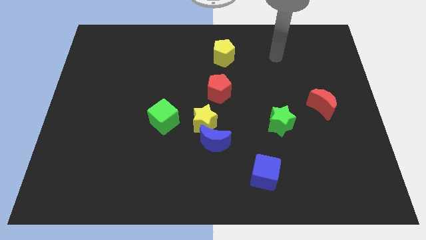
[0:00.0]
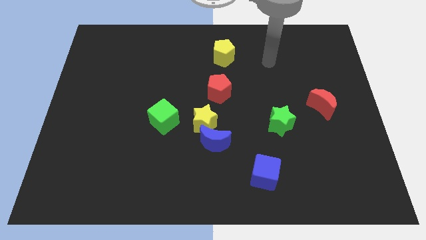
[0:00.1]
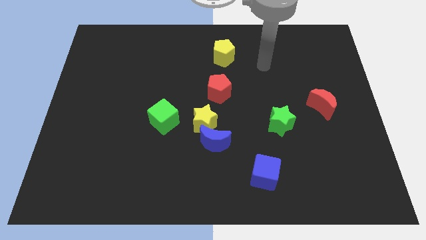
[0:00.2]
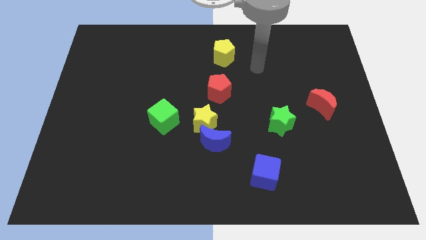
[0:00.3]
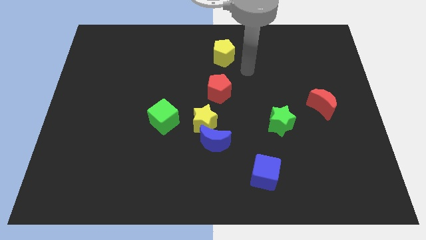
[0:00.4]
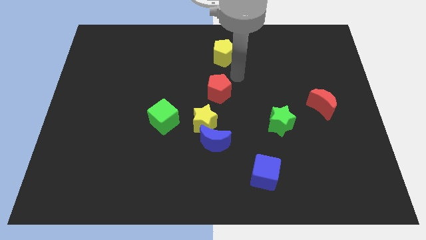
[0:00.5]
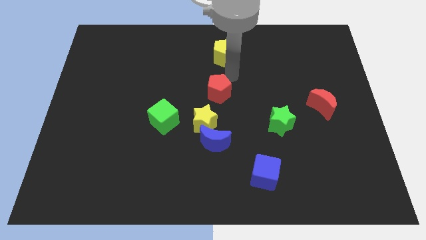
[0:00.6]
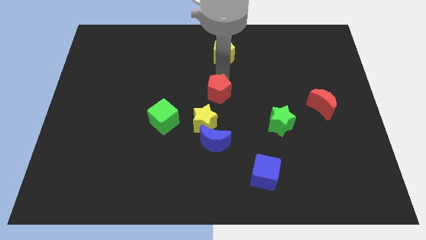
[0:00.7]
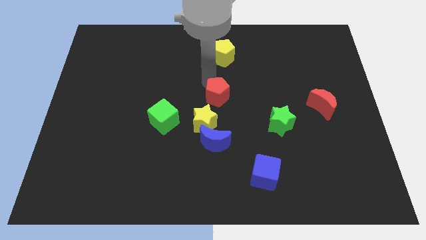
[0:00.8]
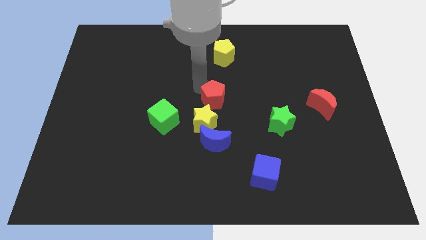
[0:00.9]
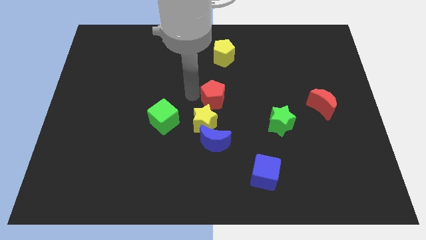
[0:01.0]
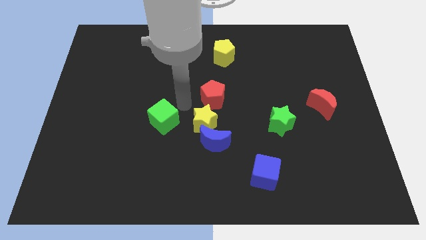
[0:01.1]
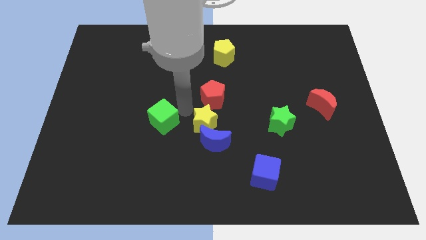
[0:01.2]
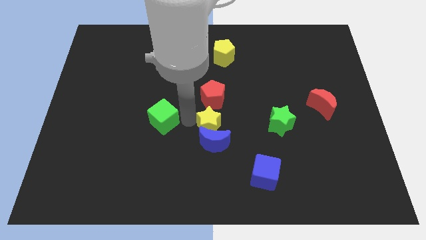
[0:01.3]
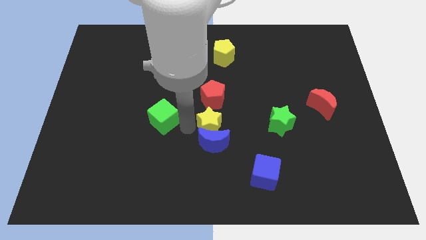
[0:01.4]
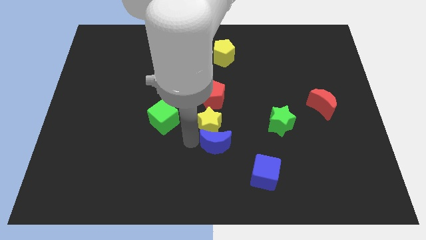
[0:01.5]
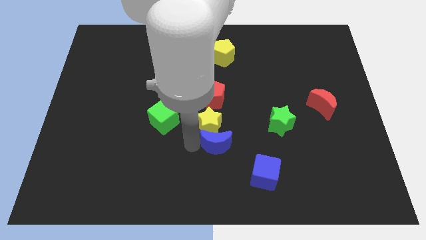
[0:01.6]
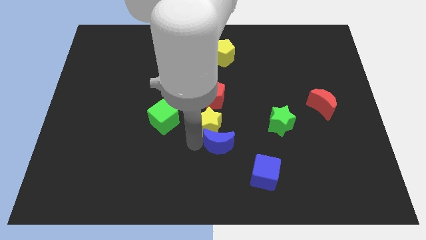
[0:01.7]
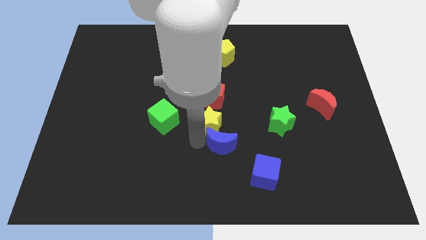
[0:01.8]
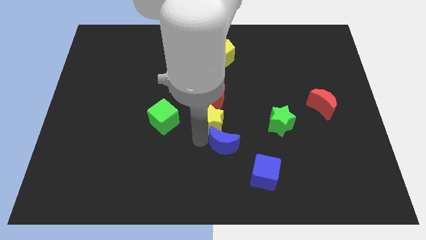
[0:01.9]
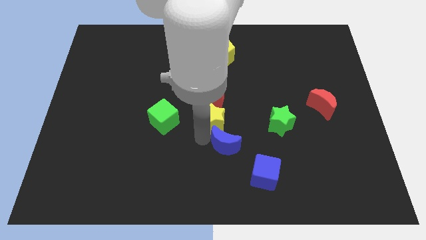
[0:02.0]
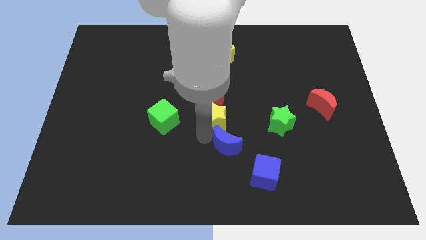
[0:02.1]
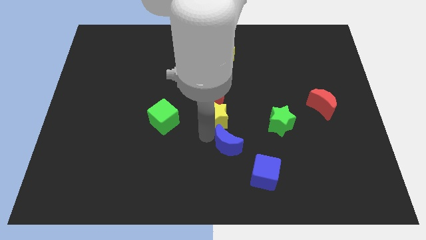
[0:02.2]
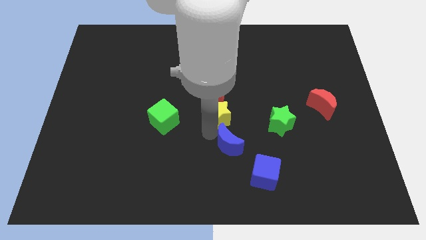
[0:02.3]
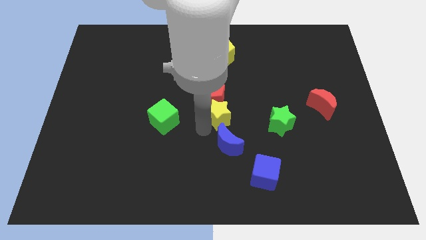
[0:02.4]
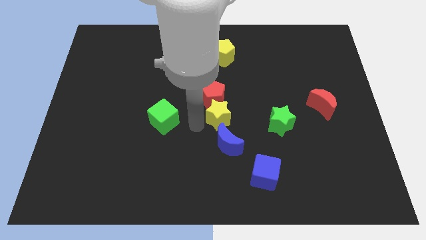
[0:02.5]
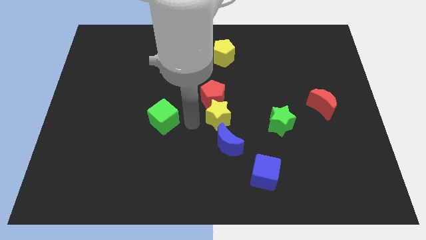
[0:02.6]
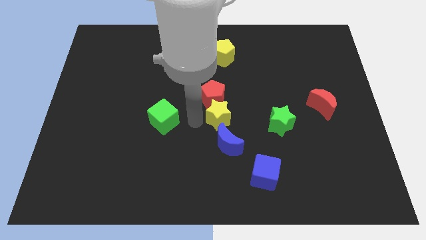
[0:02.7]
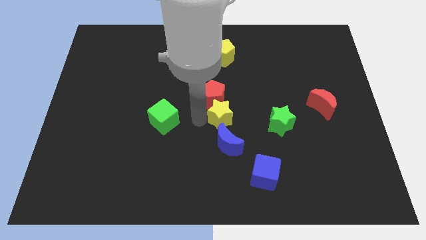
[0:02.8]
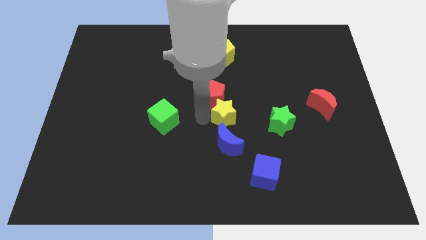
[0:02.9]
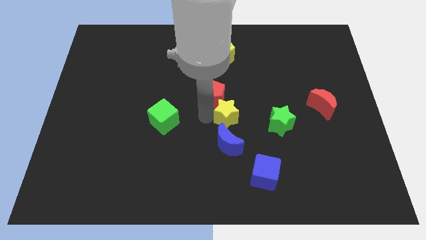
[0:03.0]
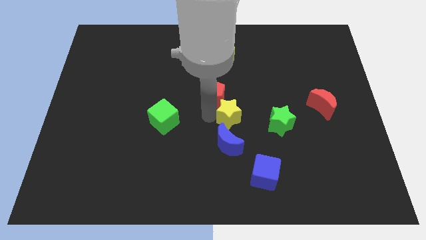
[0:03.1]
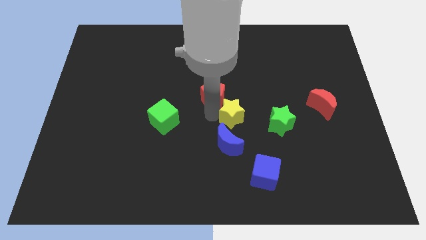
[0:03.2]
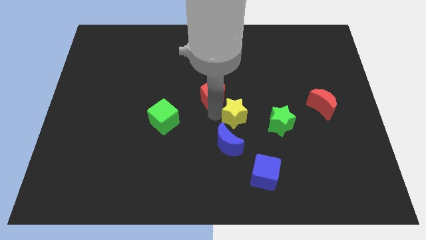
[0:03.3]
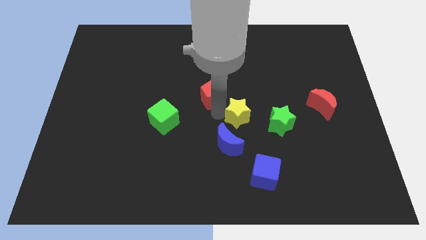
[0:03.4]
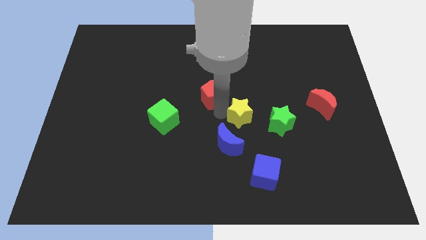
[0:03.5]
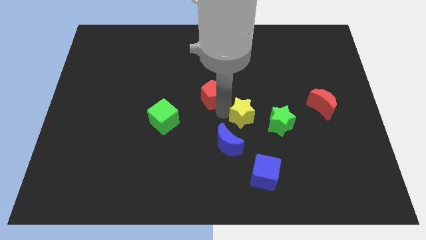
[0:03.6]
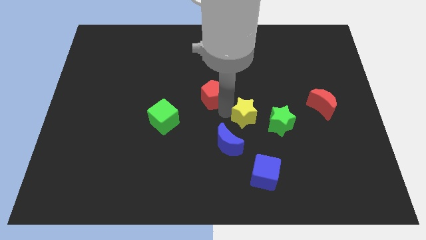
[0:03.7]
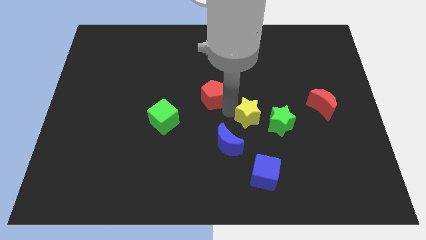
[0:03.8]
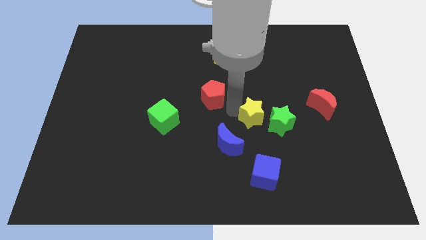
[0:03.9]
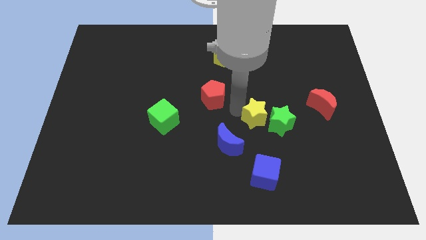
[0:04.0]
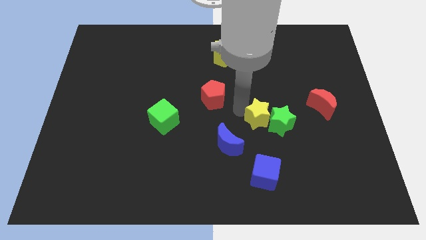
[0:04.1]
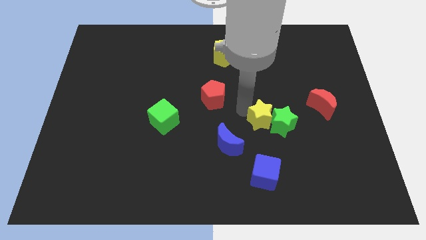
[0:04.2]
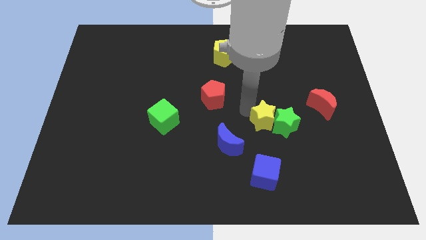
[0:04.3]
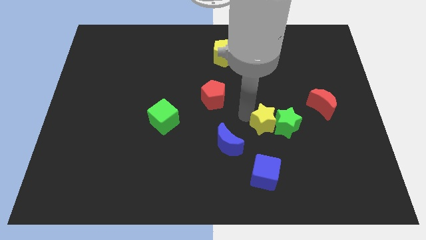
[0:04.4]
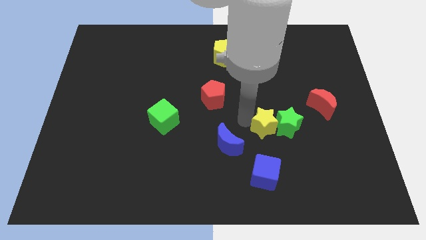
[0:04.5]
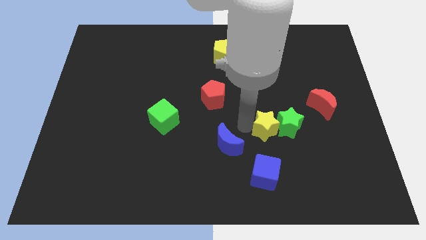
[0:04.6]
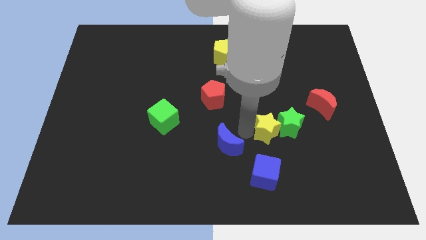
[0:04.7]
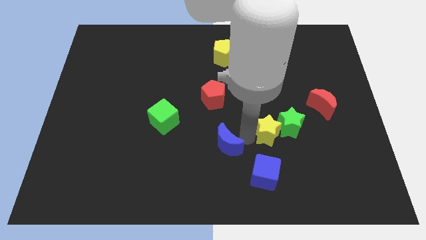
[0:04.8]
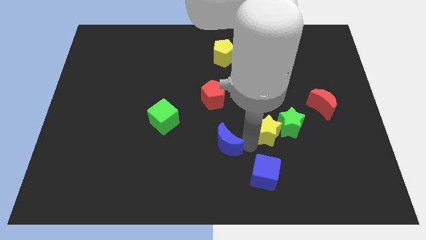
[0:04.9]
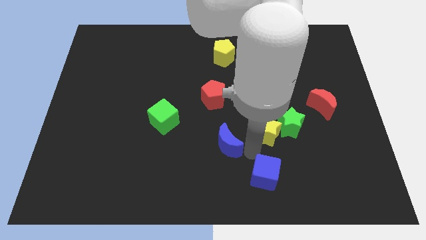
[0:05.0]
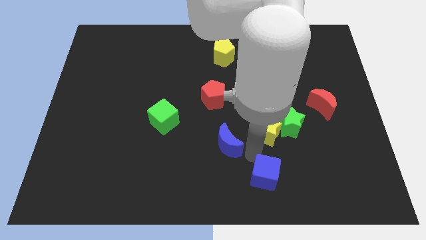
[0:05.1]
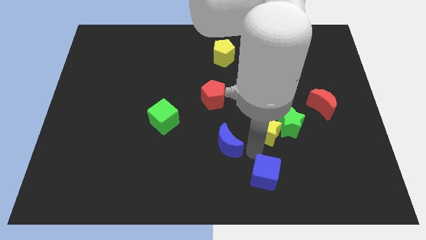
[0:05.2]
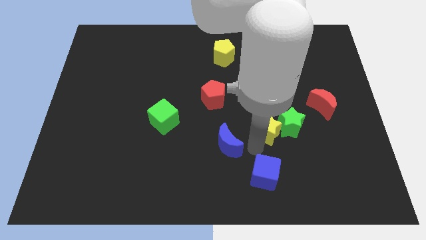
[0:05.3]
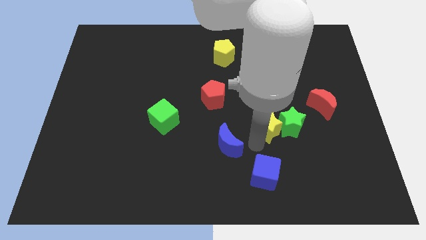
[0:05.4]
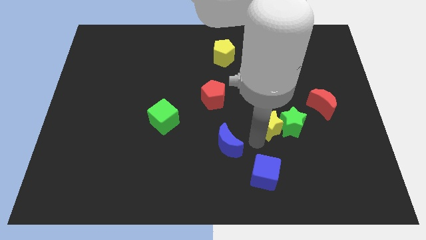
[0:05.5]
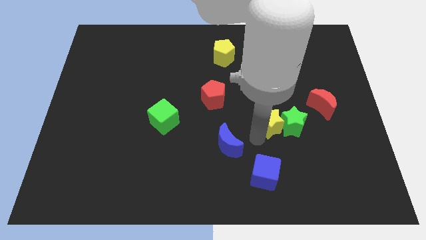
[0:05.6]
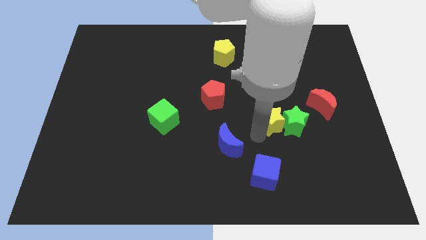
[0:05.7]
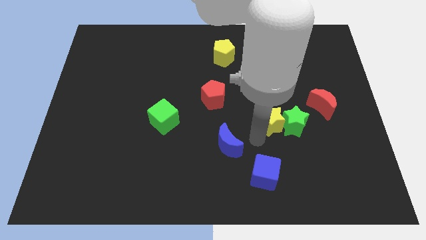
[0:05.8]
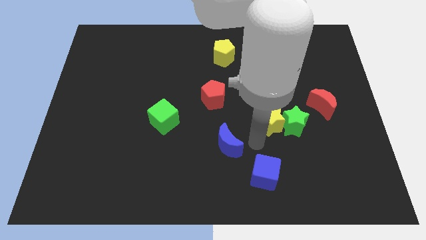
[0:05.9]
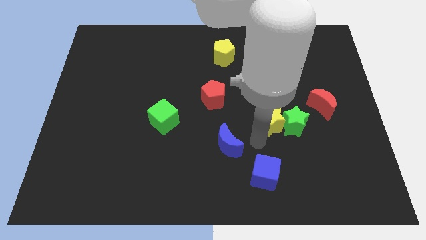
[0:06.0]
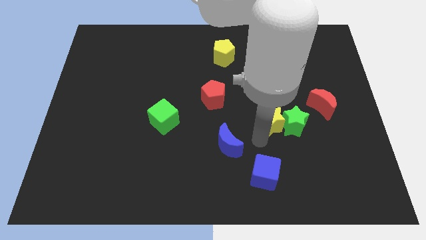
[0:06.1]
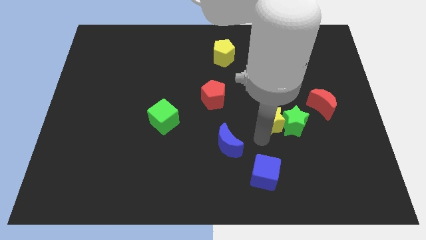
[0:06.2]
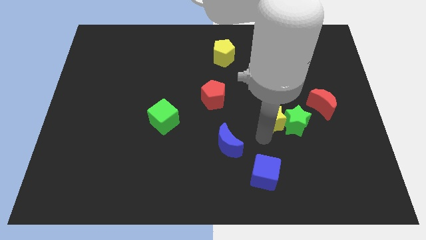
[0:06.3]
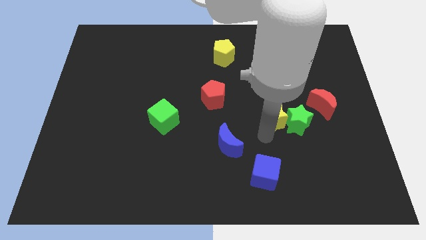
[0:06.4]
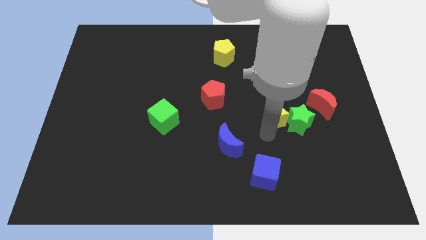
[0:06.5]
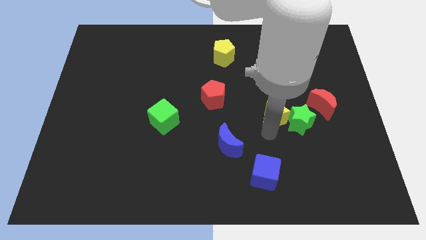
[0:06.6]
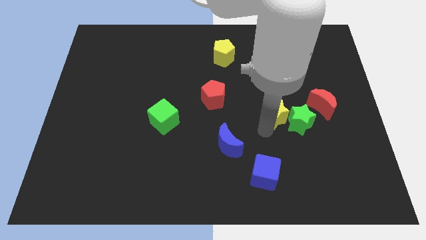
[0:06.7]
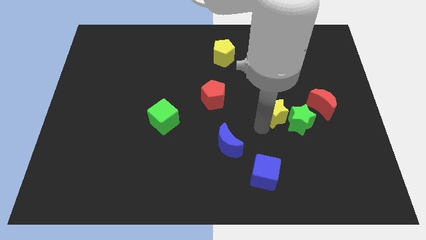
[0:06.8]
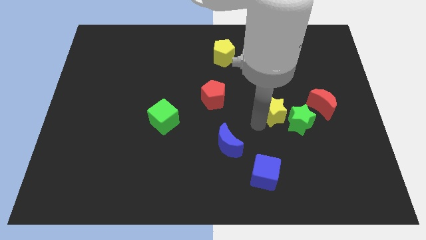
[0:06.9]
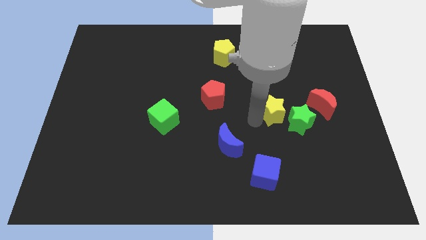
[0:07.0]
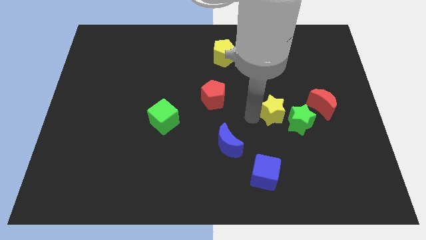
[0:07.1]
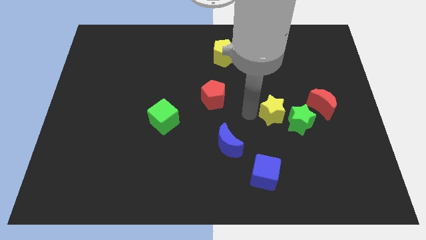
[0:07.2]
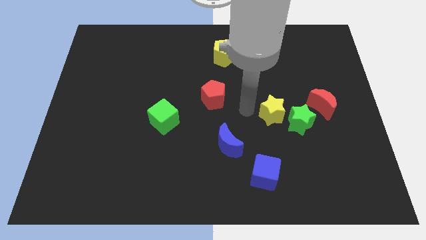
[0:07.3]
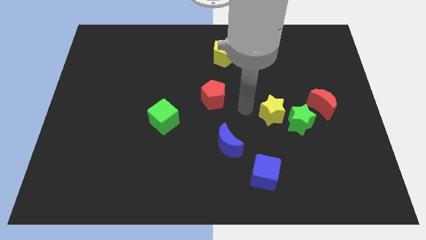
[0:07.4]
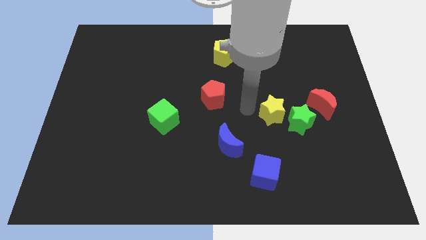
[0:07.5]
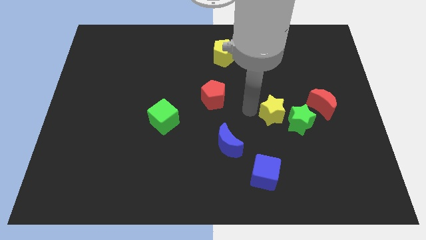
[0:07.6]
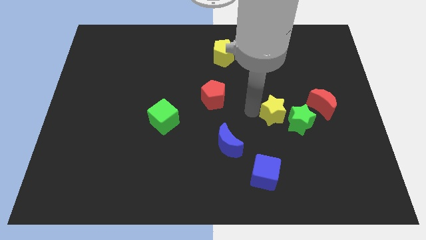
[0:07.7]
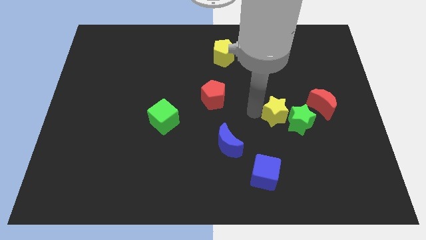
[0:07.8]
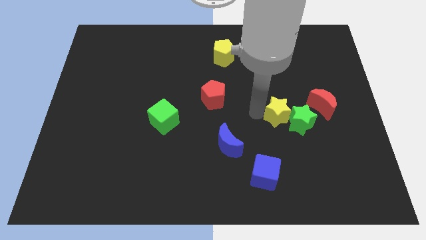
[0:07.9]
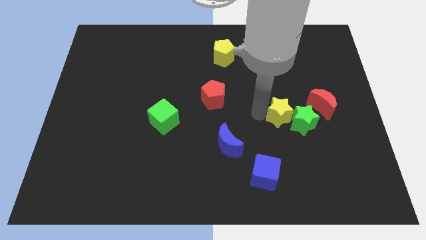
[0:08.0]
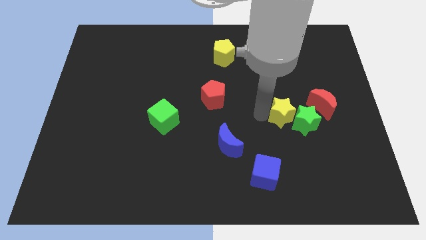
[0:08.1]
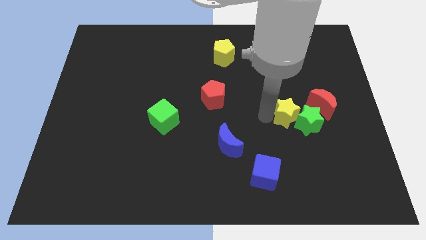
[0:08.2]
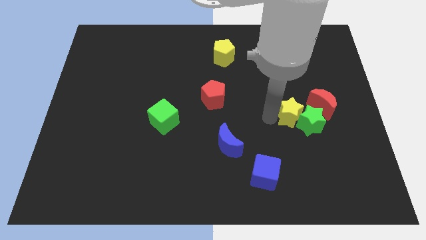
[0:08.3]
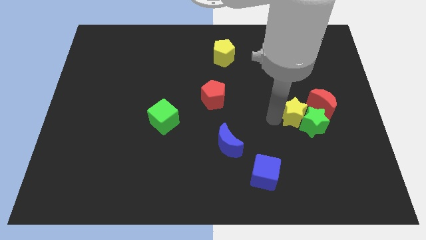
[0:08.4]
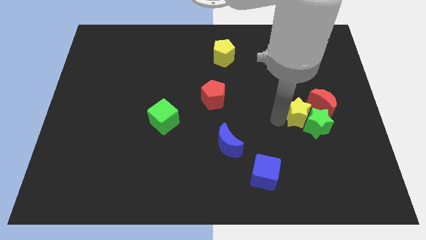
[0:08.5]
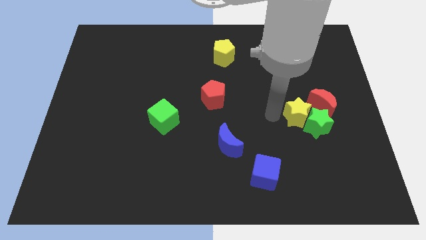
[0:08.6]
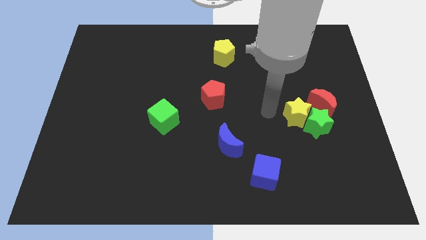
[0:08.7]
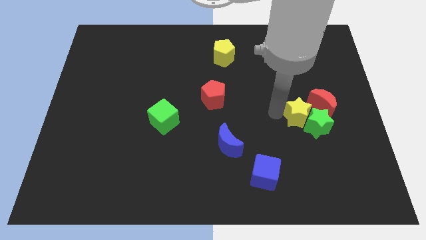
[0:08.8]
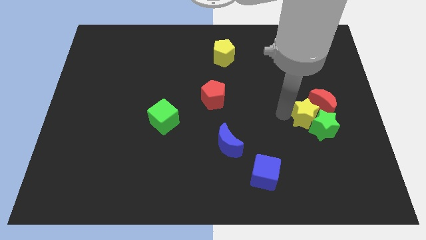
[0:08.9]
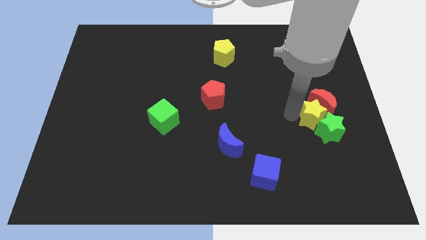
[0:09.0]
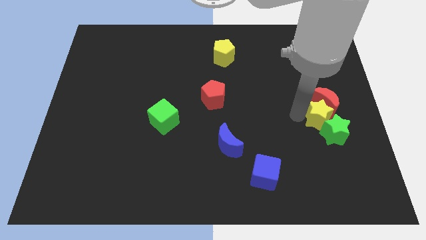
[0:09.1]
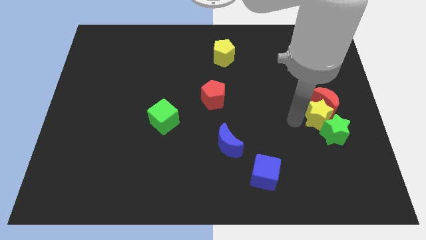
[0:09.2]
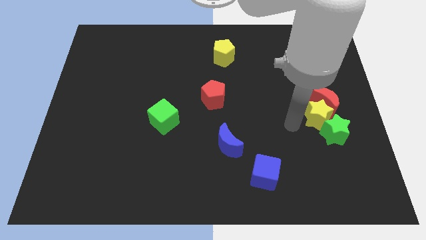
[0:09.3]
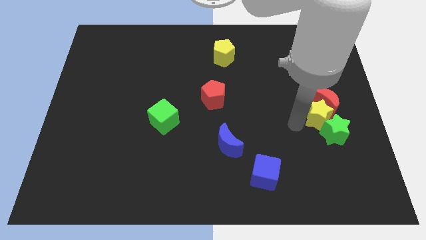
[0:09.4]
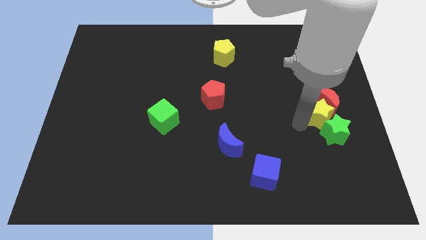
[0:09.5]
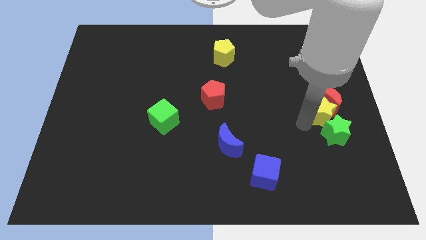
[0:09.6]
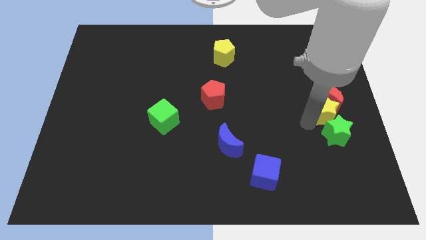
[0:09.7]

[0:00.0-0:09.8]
push the yellow star to the right side
